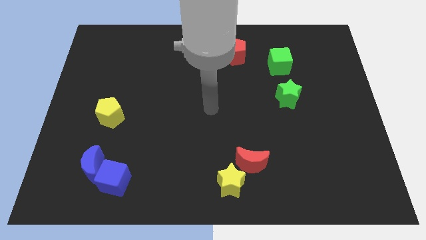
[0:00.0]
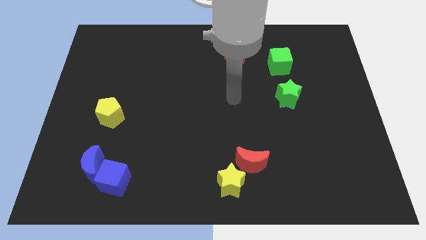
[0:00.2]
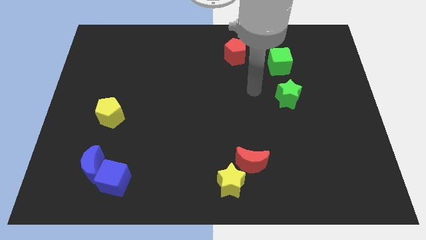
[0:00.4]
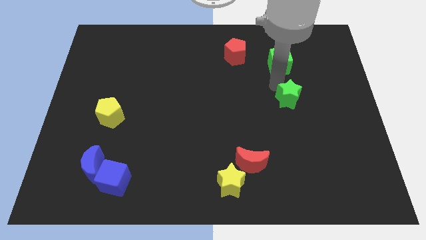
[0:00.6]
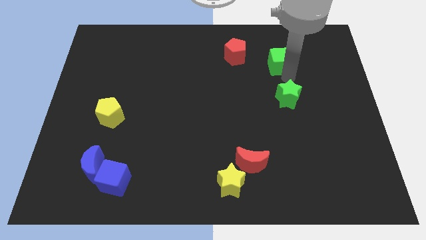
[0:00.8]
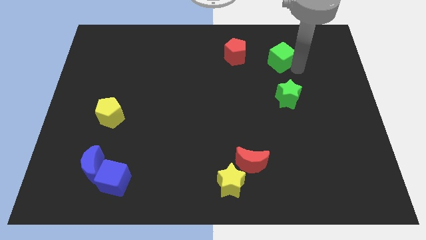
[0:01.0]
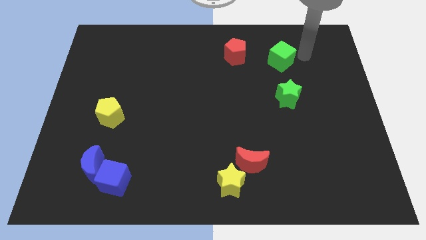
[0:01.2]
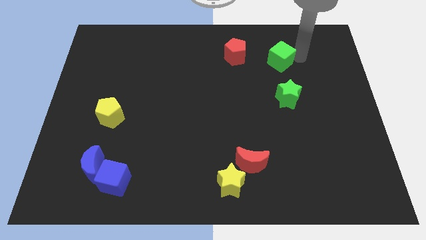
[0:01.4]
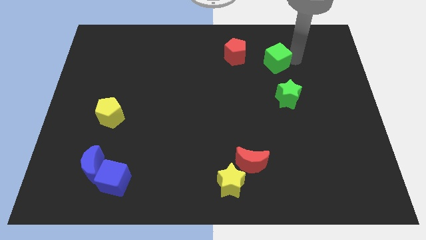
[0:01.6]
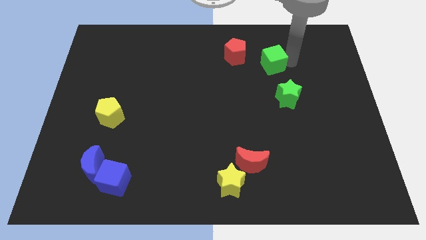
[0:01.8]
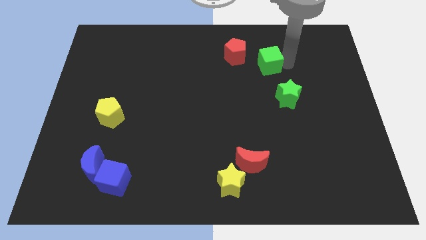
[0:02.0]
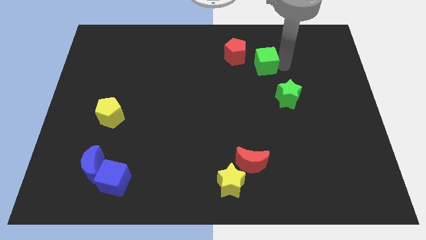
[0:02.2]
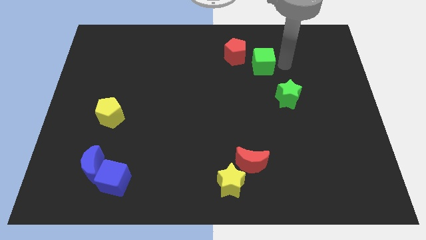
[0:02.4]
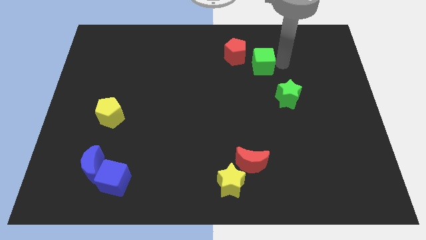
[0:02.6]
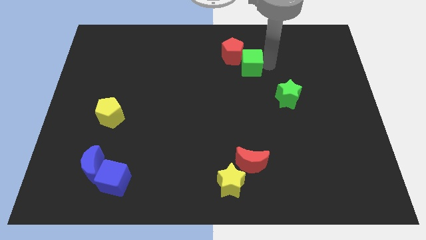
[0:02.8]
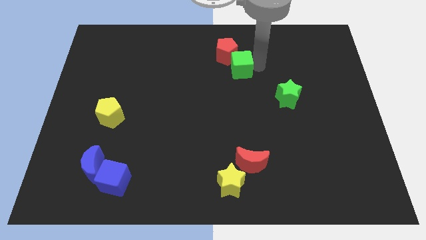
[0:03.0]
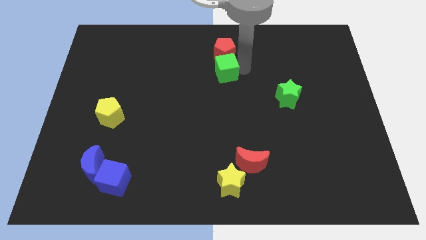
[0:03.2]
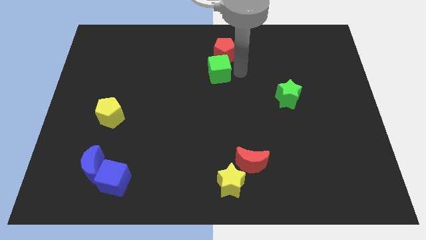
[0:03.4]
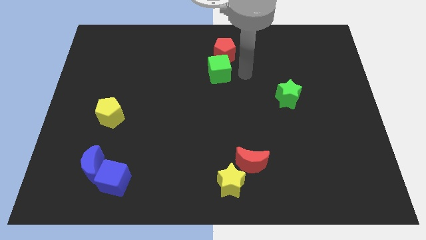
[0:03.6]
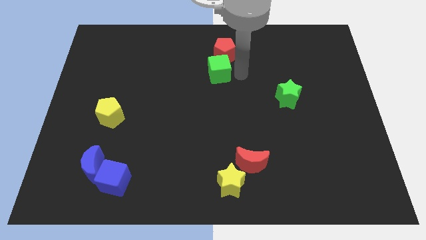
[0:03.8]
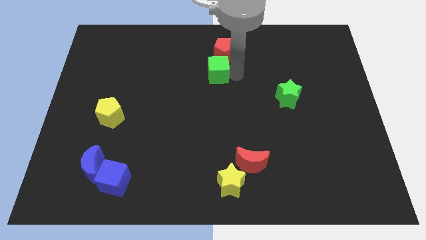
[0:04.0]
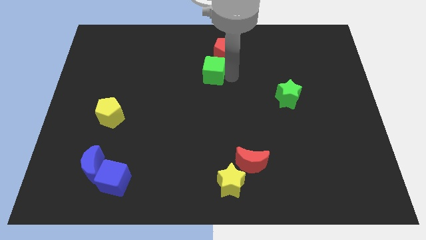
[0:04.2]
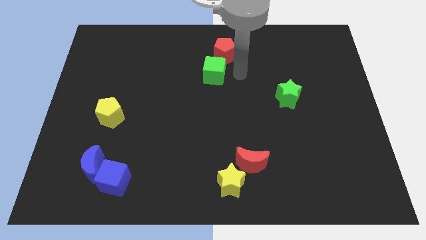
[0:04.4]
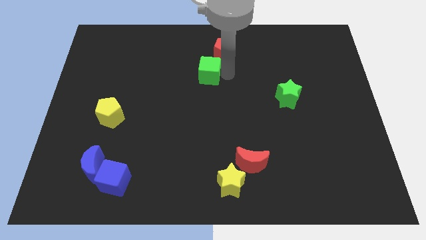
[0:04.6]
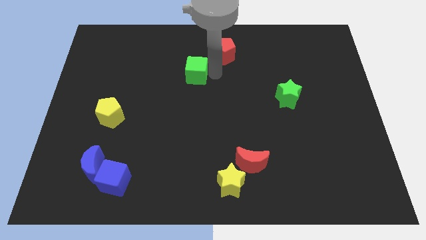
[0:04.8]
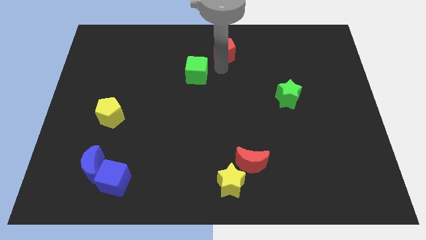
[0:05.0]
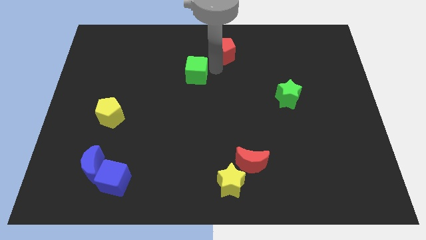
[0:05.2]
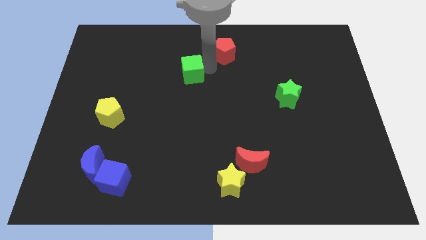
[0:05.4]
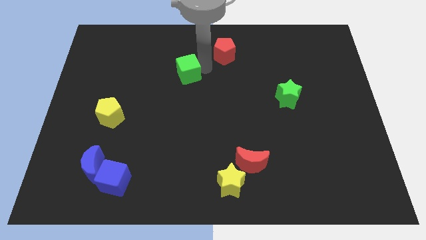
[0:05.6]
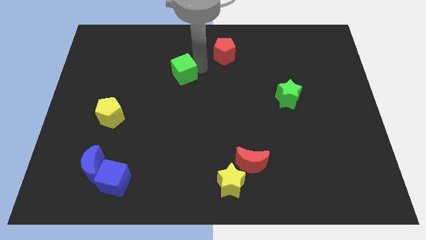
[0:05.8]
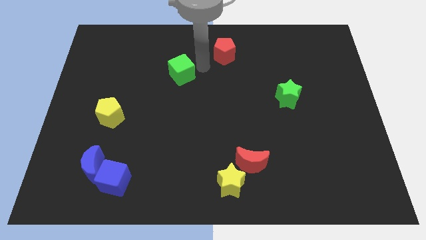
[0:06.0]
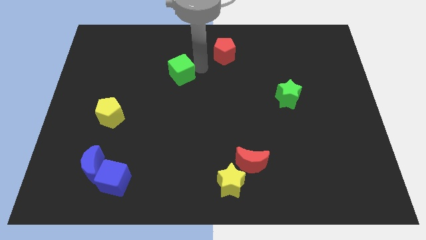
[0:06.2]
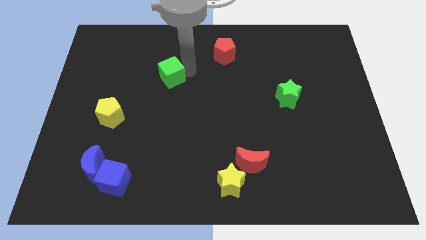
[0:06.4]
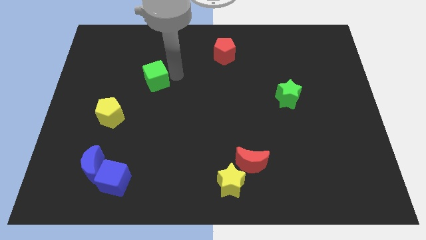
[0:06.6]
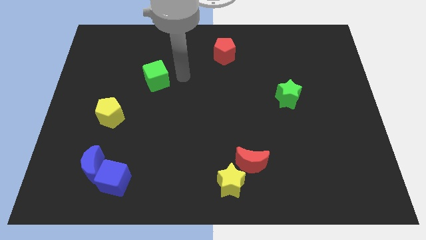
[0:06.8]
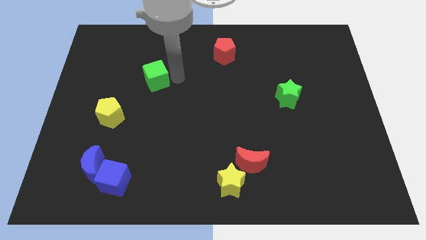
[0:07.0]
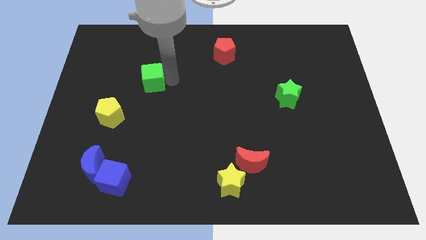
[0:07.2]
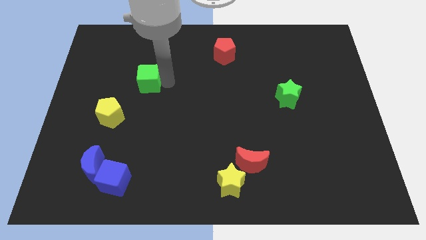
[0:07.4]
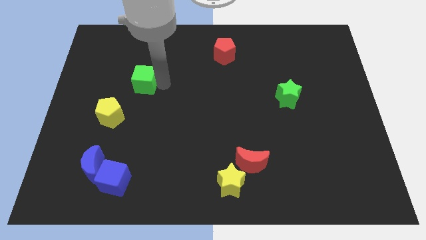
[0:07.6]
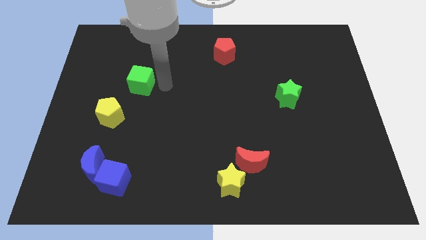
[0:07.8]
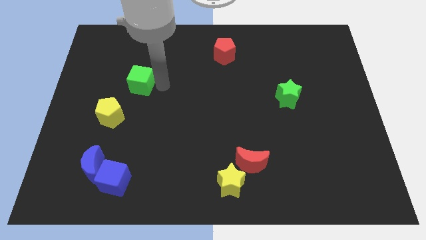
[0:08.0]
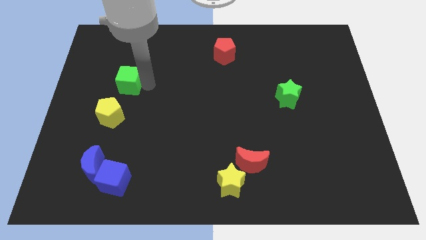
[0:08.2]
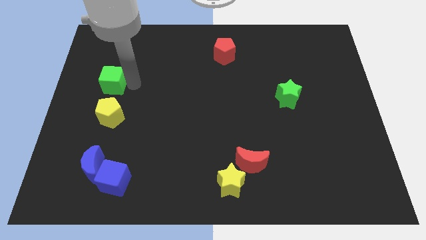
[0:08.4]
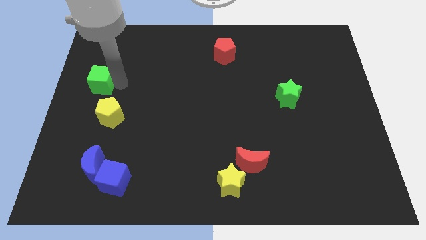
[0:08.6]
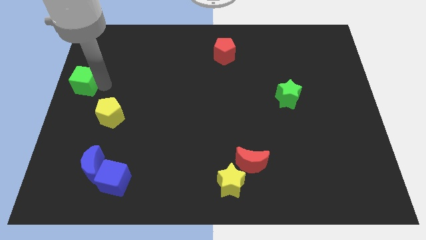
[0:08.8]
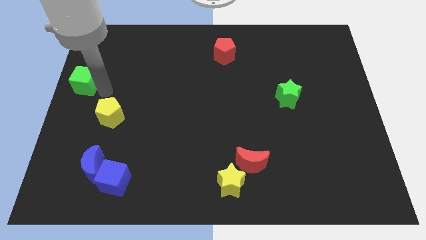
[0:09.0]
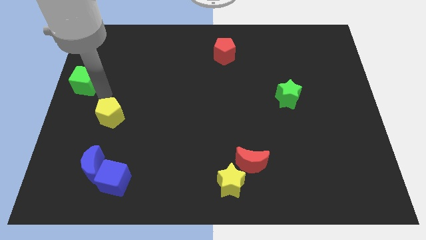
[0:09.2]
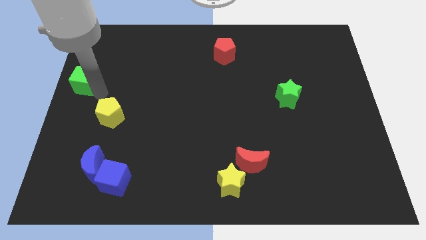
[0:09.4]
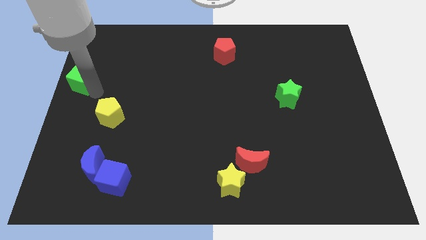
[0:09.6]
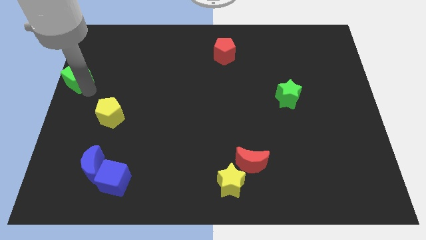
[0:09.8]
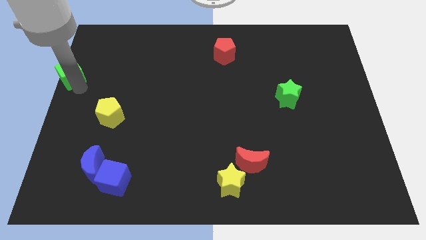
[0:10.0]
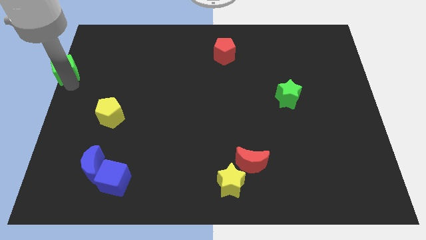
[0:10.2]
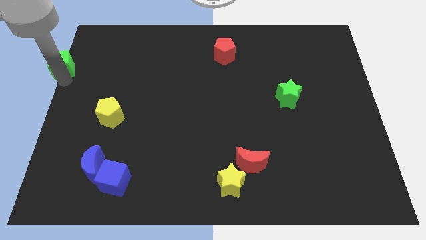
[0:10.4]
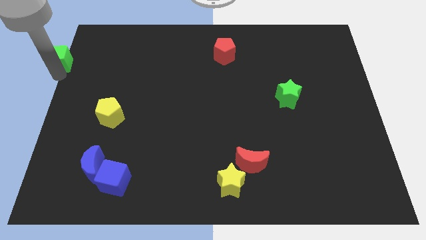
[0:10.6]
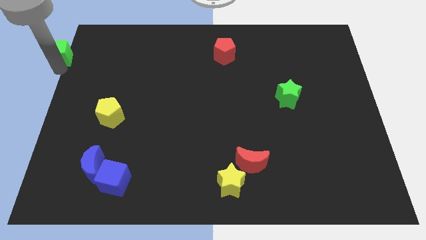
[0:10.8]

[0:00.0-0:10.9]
push the green cube to the top left

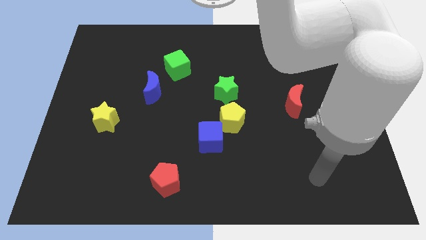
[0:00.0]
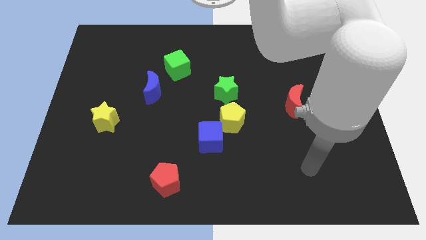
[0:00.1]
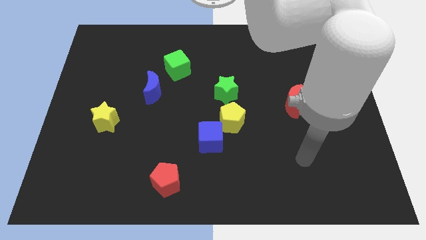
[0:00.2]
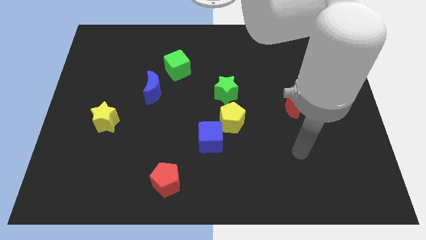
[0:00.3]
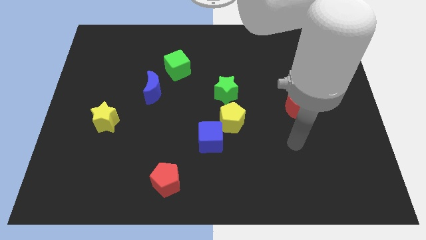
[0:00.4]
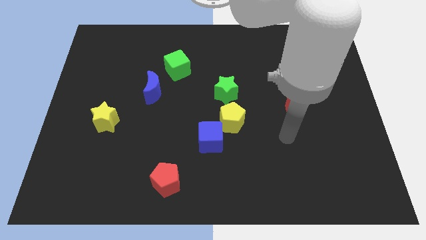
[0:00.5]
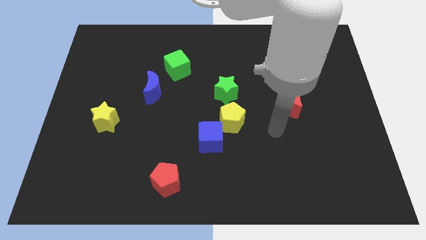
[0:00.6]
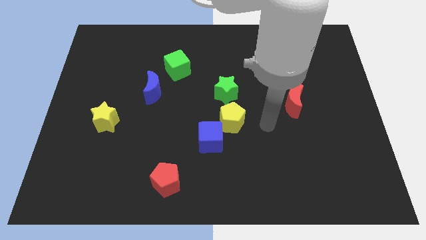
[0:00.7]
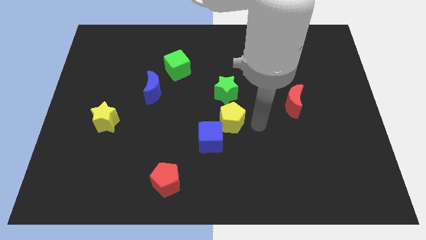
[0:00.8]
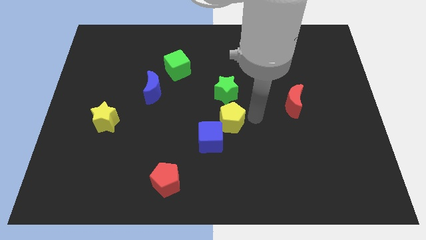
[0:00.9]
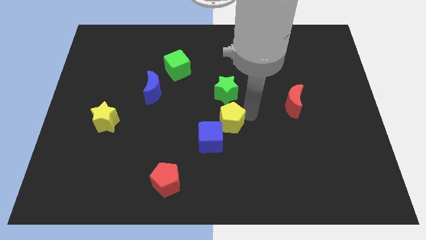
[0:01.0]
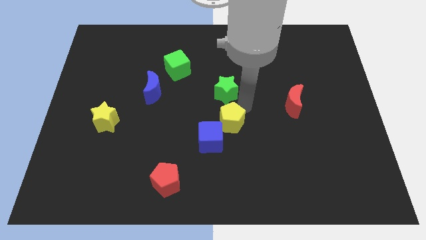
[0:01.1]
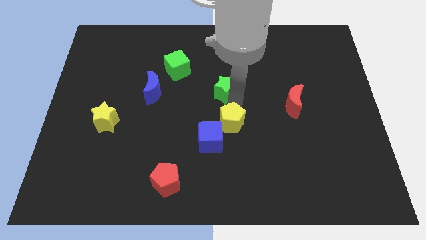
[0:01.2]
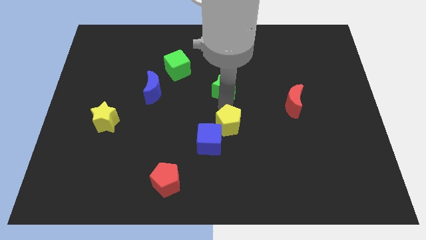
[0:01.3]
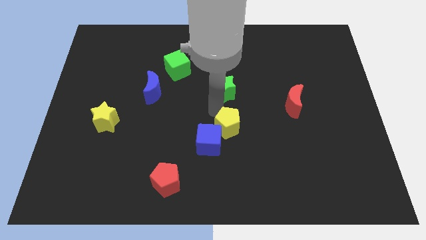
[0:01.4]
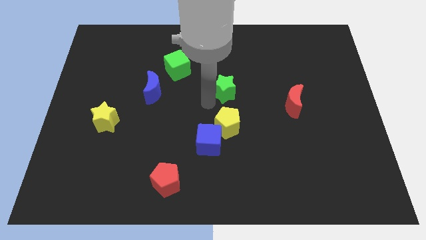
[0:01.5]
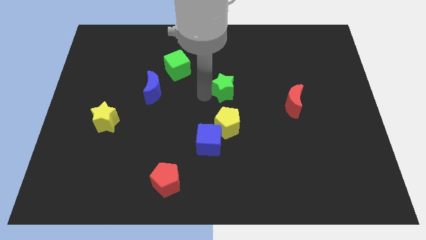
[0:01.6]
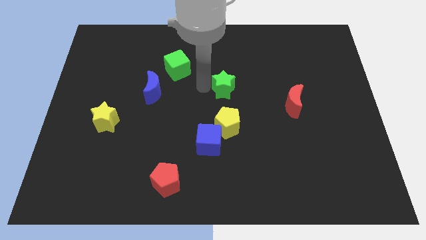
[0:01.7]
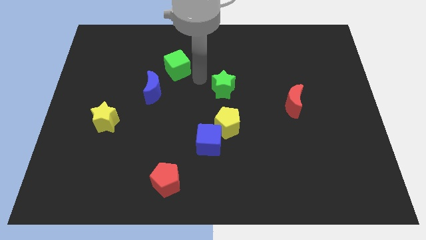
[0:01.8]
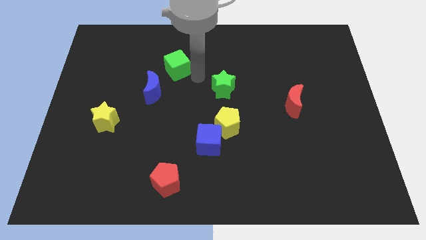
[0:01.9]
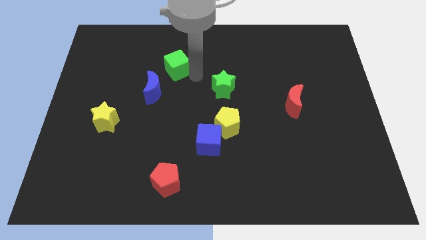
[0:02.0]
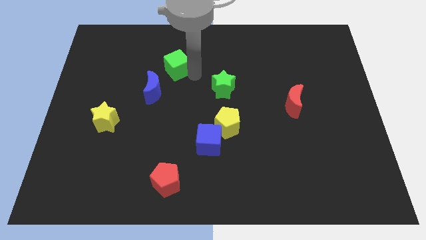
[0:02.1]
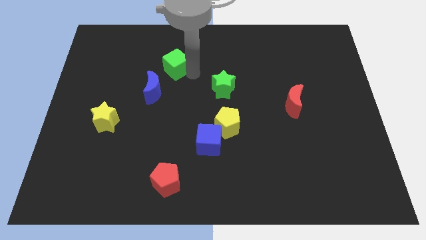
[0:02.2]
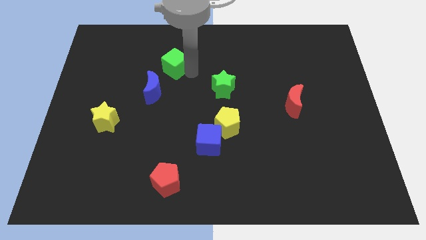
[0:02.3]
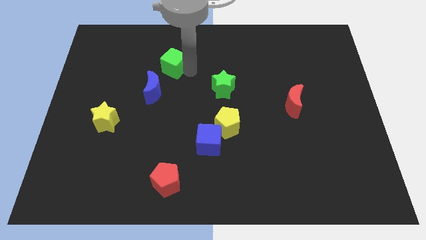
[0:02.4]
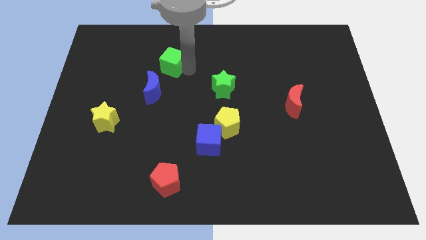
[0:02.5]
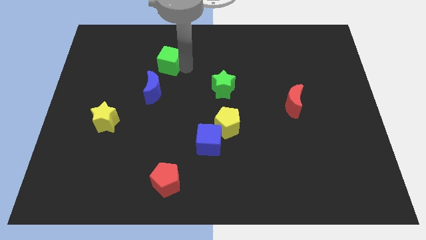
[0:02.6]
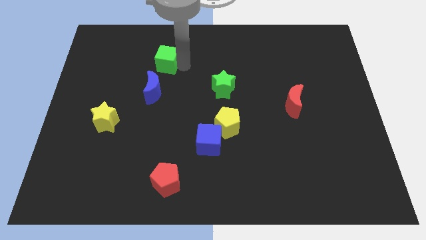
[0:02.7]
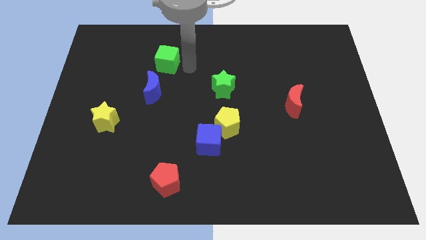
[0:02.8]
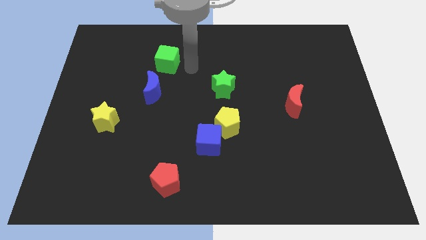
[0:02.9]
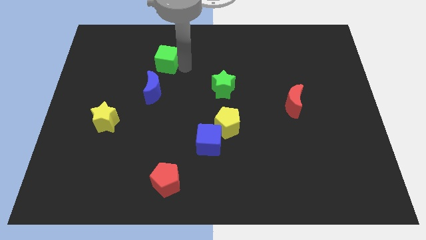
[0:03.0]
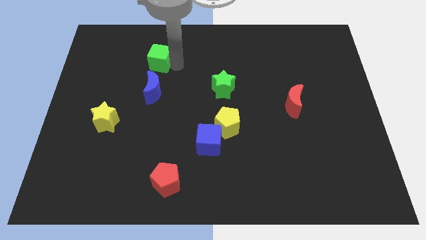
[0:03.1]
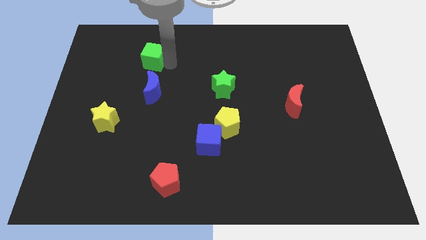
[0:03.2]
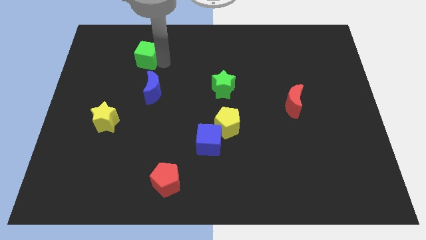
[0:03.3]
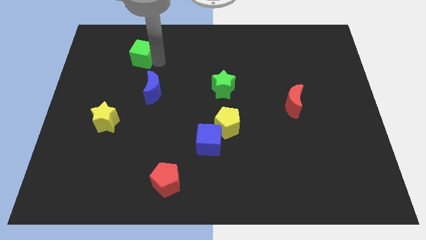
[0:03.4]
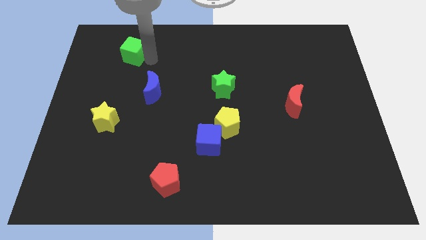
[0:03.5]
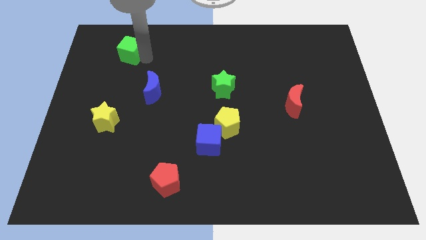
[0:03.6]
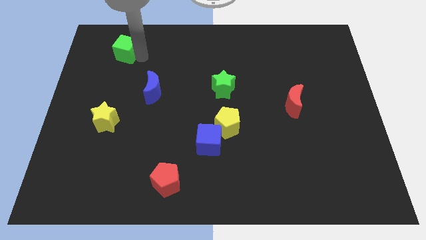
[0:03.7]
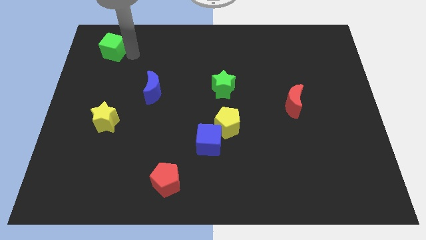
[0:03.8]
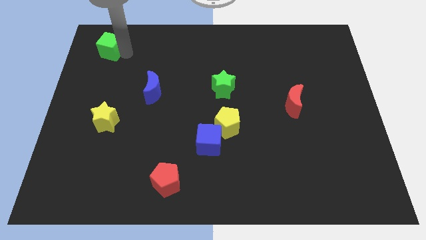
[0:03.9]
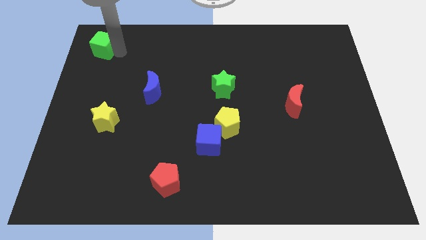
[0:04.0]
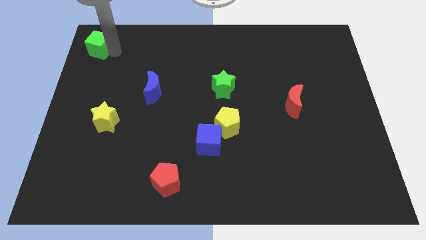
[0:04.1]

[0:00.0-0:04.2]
put the green cube to the top left
